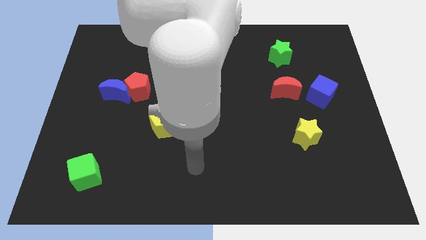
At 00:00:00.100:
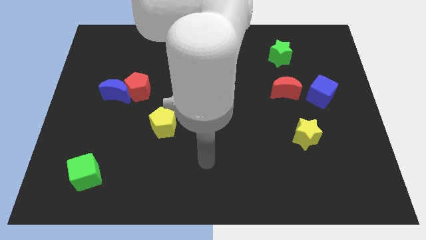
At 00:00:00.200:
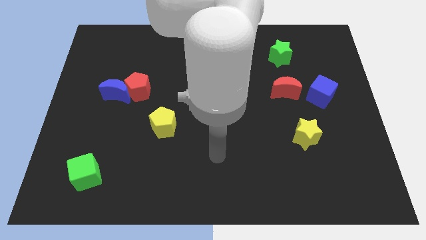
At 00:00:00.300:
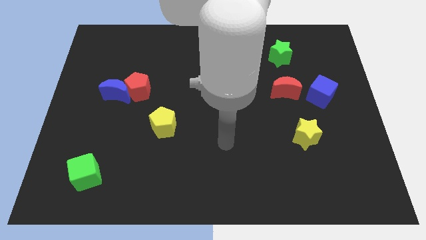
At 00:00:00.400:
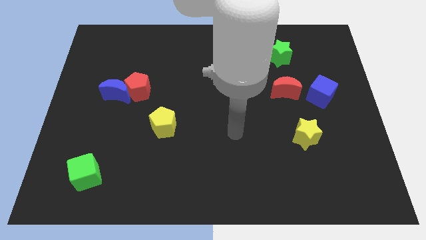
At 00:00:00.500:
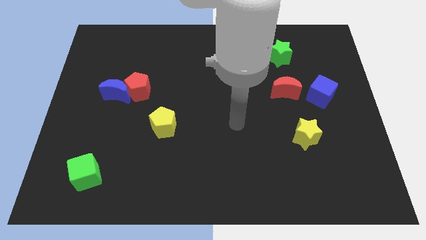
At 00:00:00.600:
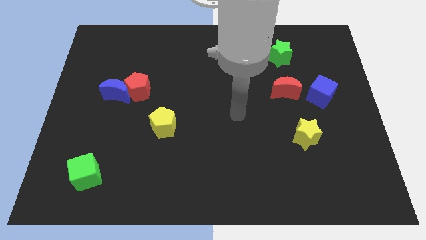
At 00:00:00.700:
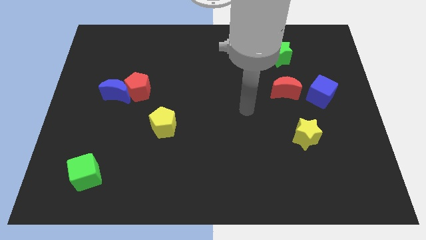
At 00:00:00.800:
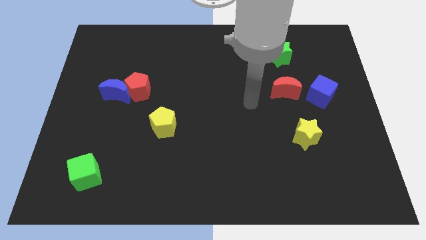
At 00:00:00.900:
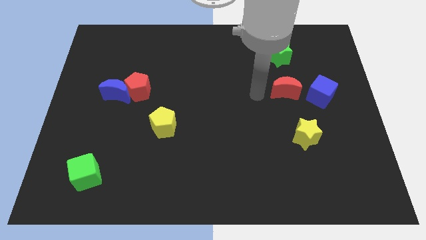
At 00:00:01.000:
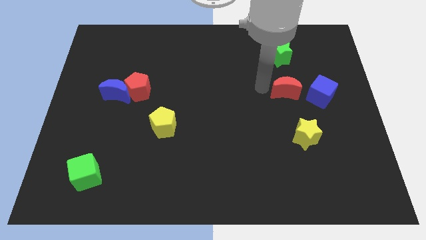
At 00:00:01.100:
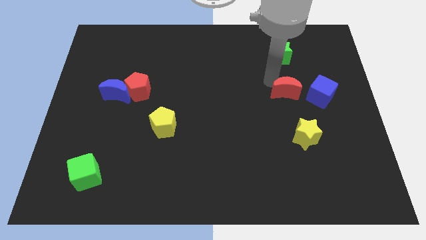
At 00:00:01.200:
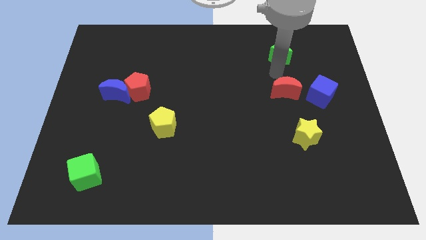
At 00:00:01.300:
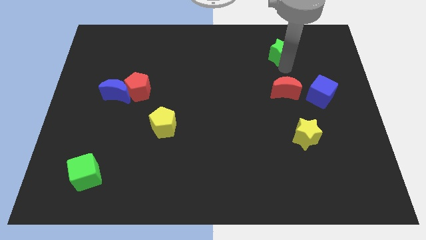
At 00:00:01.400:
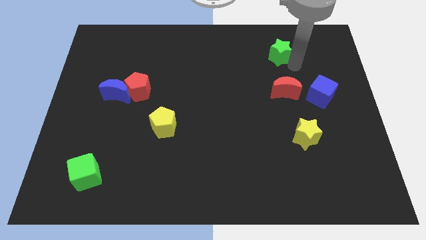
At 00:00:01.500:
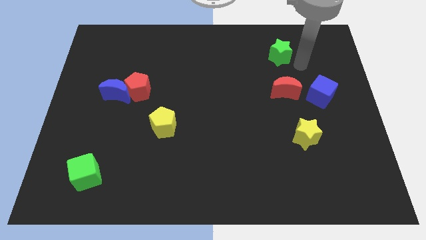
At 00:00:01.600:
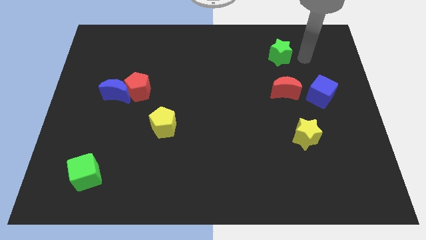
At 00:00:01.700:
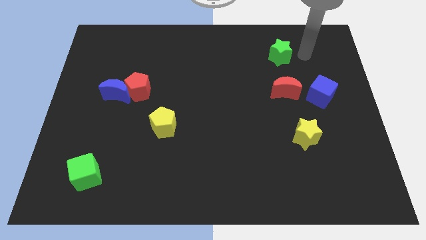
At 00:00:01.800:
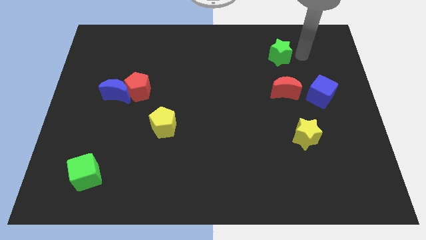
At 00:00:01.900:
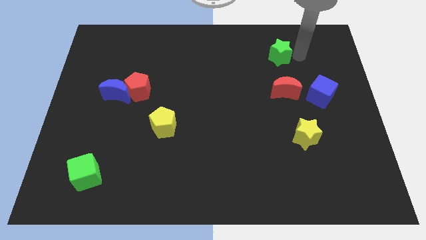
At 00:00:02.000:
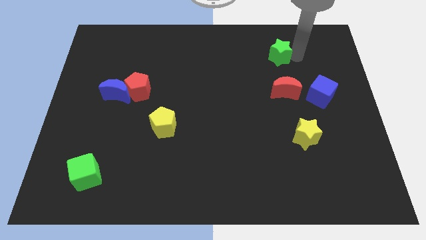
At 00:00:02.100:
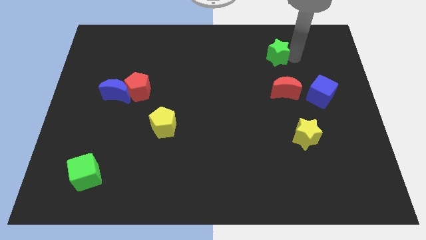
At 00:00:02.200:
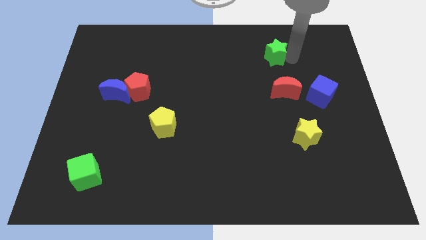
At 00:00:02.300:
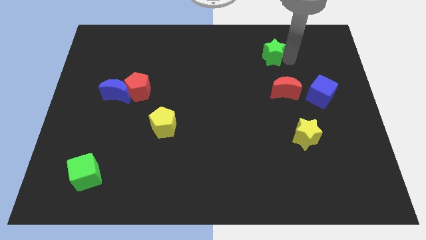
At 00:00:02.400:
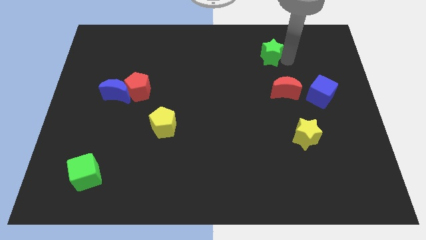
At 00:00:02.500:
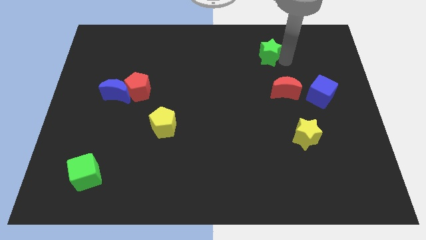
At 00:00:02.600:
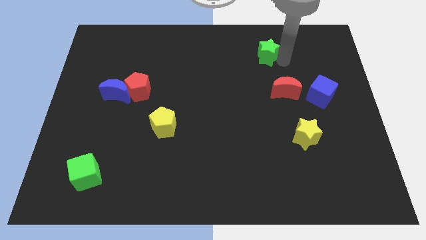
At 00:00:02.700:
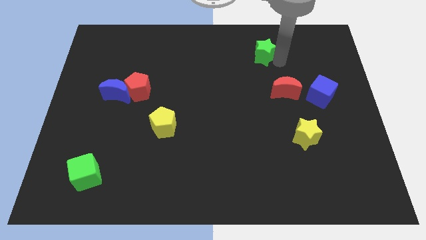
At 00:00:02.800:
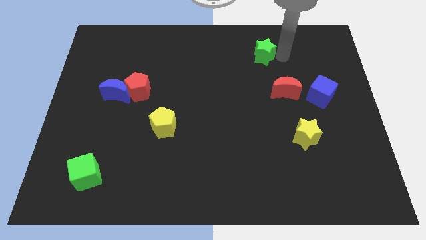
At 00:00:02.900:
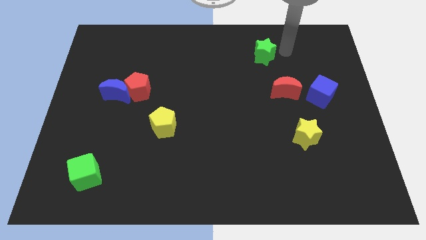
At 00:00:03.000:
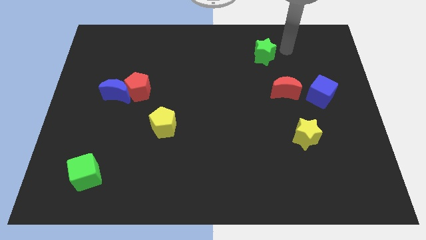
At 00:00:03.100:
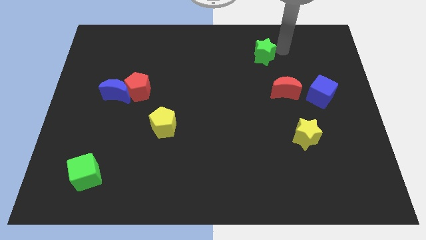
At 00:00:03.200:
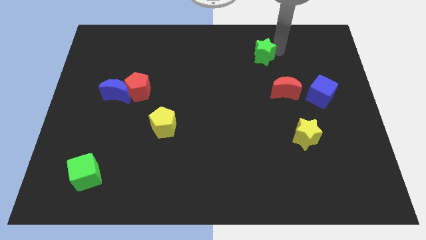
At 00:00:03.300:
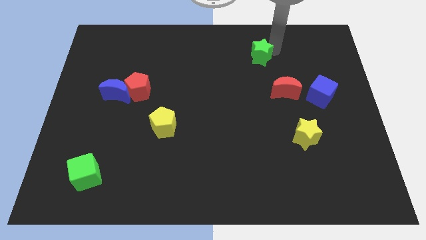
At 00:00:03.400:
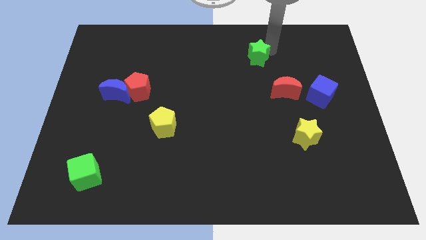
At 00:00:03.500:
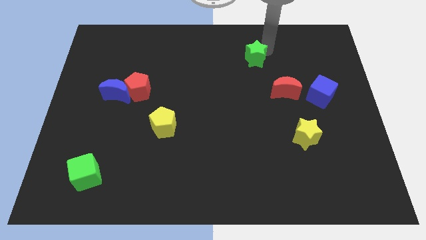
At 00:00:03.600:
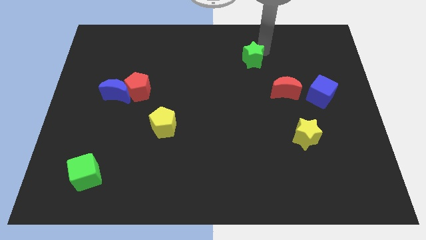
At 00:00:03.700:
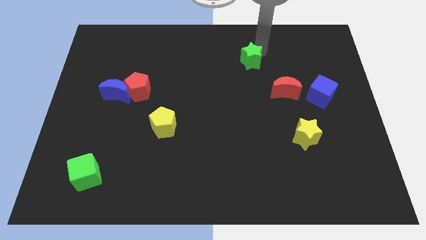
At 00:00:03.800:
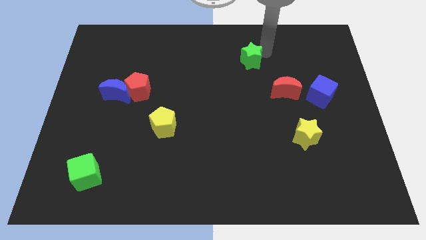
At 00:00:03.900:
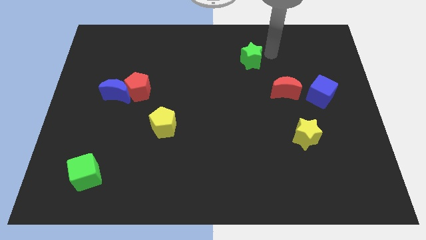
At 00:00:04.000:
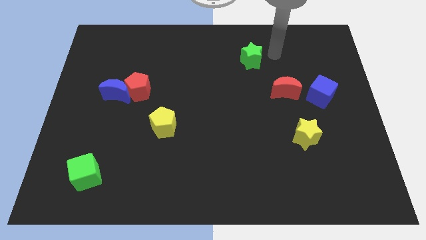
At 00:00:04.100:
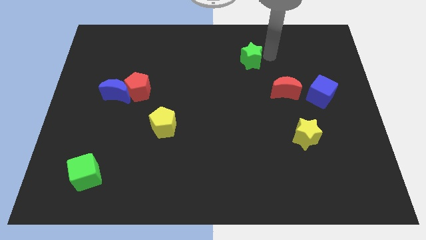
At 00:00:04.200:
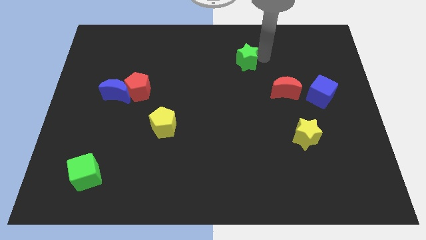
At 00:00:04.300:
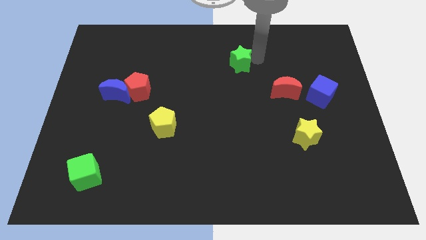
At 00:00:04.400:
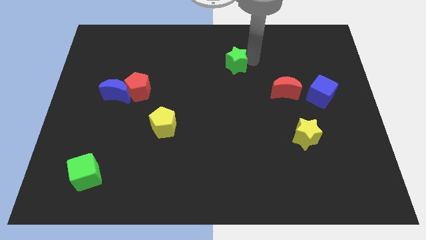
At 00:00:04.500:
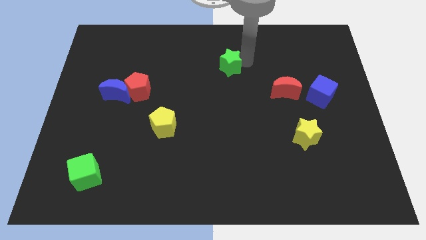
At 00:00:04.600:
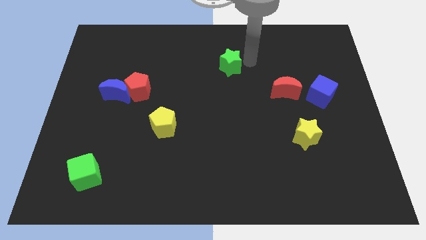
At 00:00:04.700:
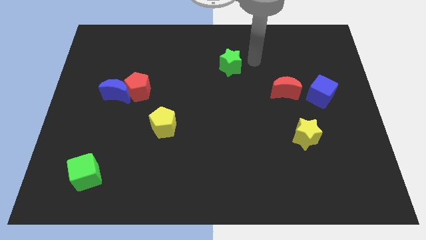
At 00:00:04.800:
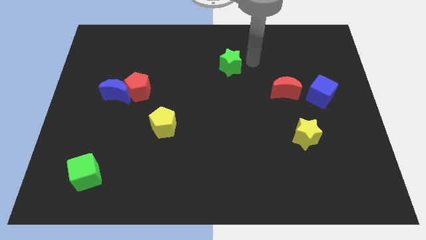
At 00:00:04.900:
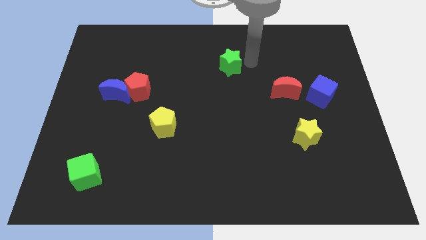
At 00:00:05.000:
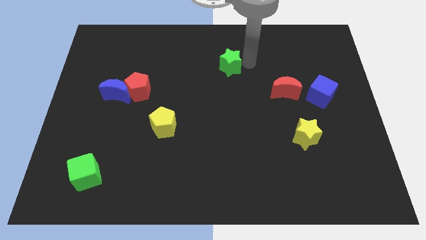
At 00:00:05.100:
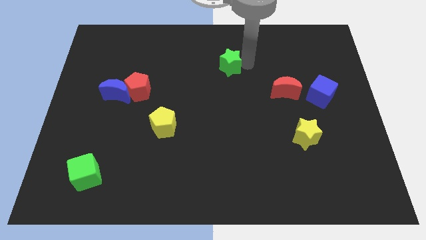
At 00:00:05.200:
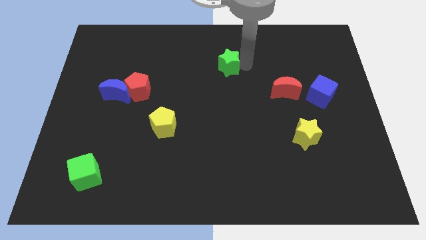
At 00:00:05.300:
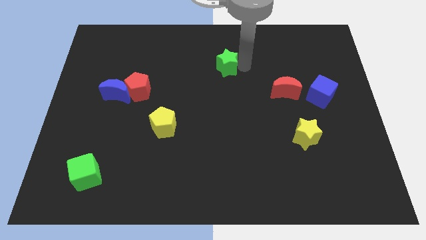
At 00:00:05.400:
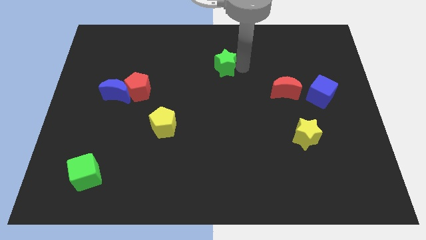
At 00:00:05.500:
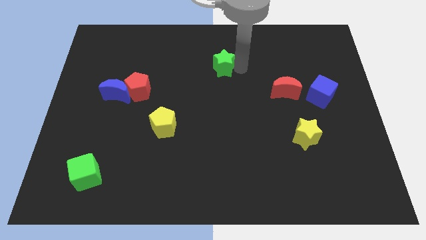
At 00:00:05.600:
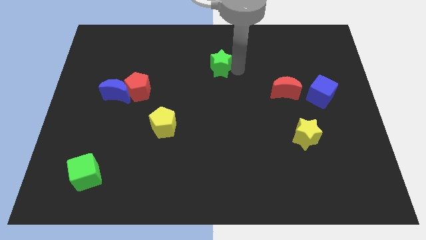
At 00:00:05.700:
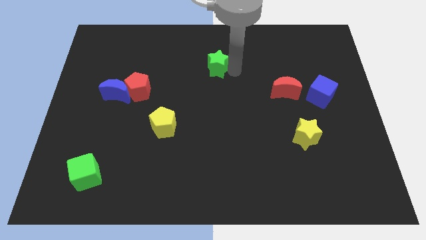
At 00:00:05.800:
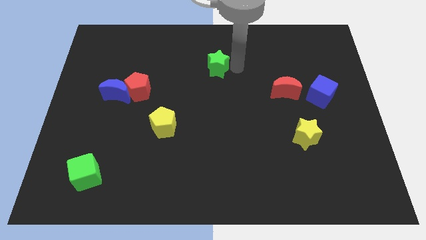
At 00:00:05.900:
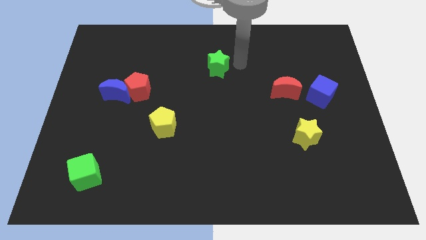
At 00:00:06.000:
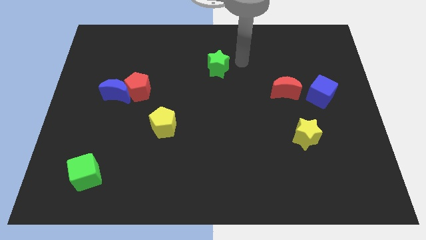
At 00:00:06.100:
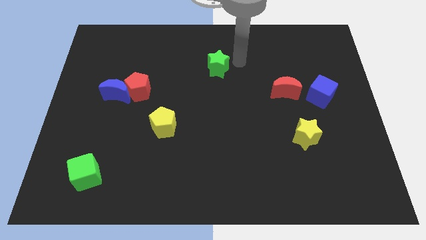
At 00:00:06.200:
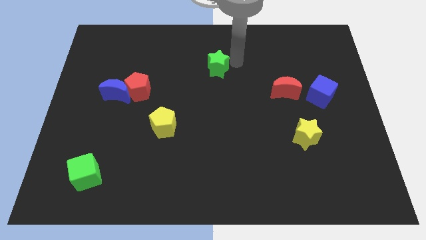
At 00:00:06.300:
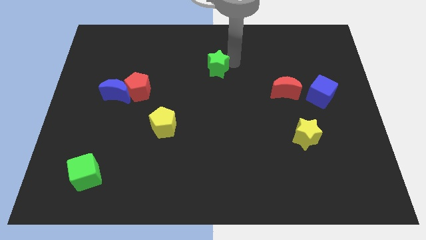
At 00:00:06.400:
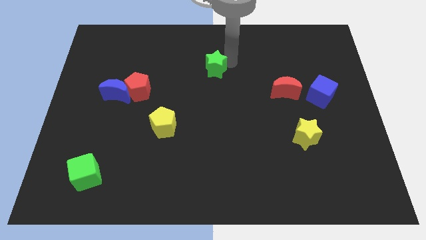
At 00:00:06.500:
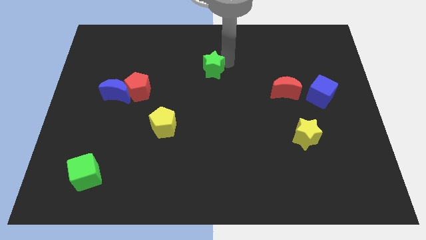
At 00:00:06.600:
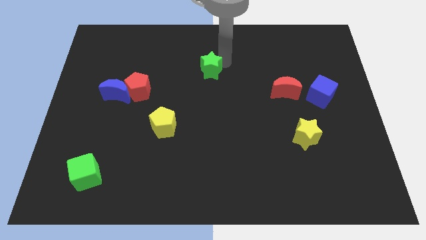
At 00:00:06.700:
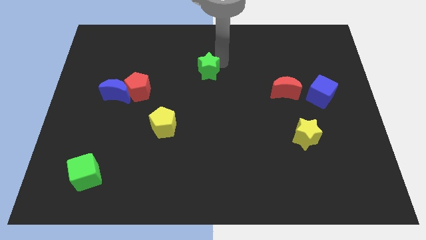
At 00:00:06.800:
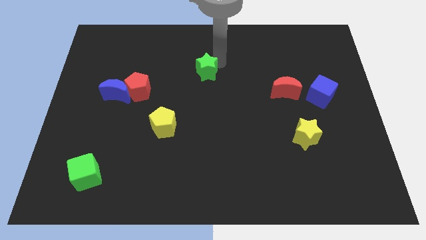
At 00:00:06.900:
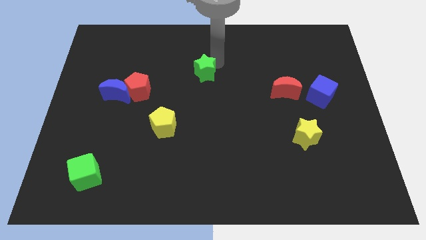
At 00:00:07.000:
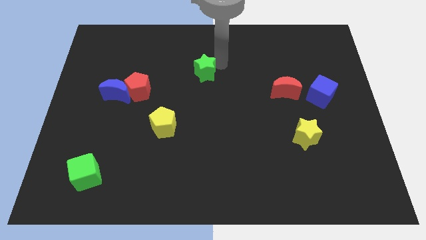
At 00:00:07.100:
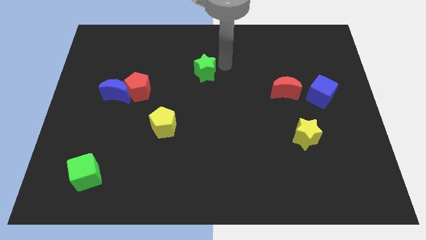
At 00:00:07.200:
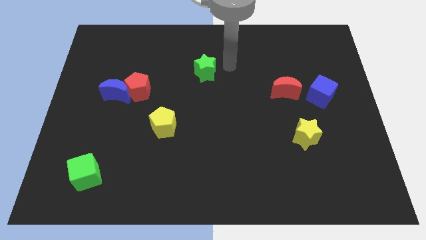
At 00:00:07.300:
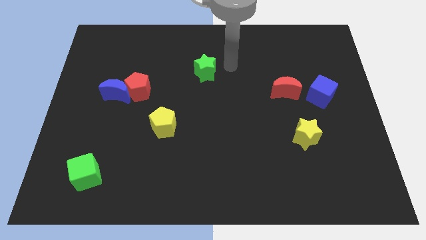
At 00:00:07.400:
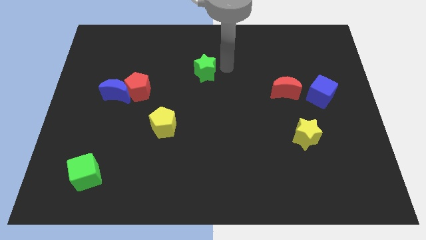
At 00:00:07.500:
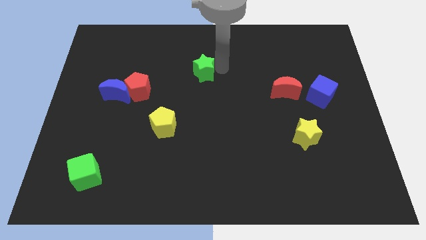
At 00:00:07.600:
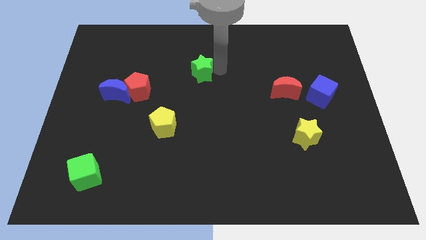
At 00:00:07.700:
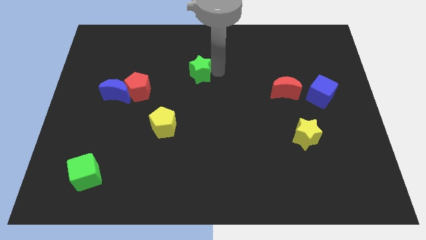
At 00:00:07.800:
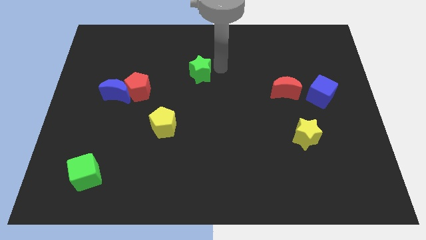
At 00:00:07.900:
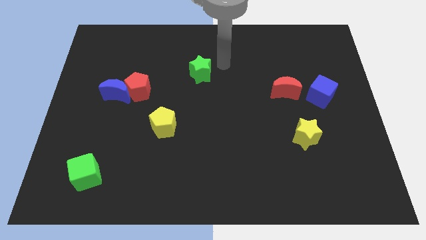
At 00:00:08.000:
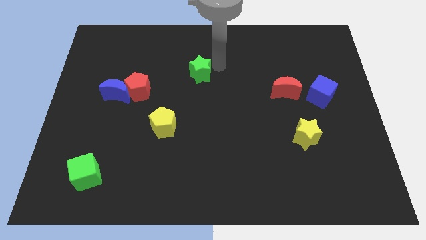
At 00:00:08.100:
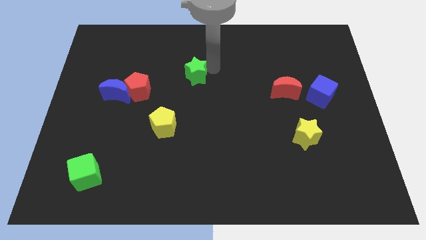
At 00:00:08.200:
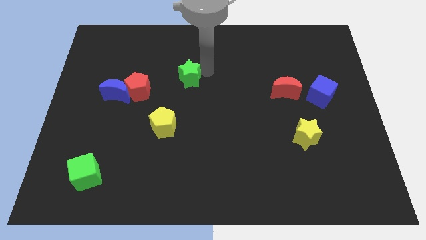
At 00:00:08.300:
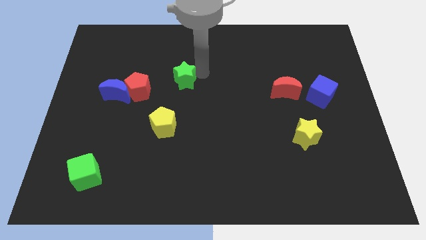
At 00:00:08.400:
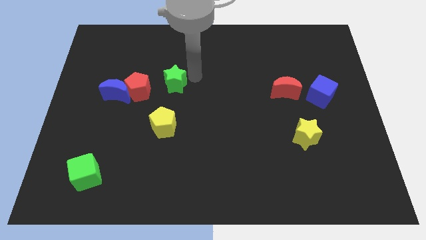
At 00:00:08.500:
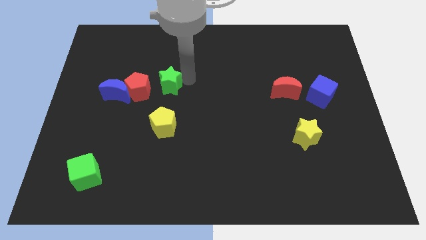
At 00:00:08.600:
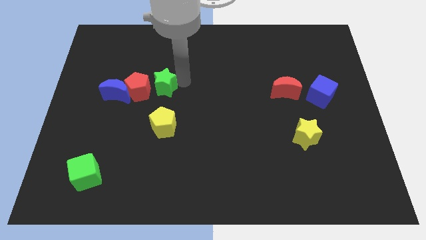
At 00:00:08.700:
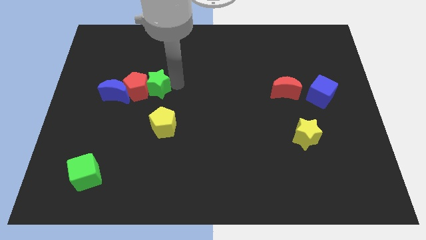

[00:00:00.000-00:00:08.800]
move the green star towards the red pentagon
